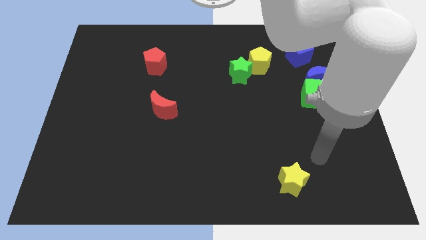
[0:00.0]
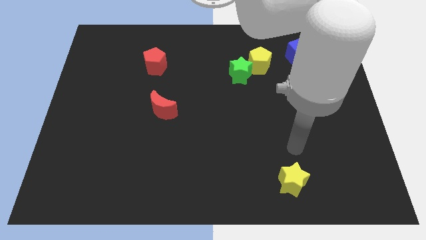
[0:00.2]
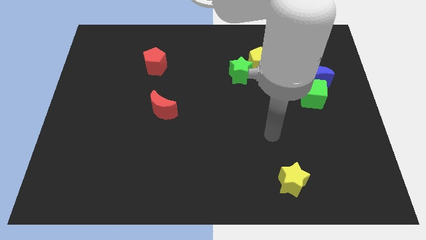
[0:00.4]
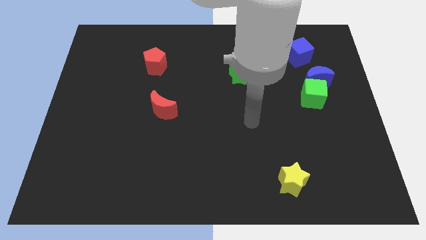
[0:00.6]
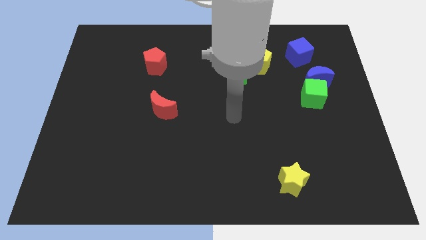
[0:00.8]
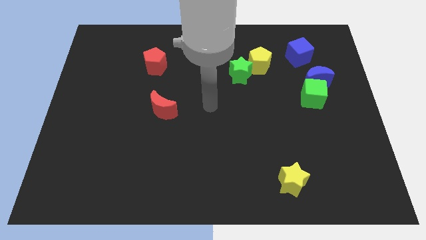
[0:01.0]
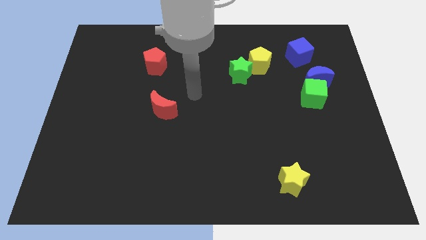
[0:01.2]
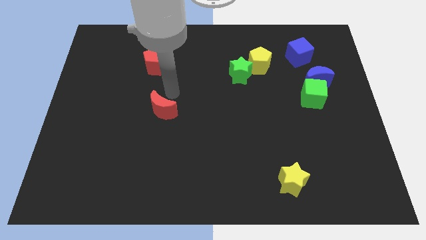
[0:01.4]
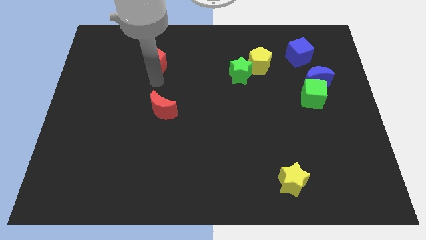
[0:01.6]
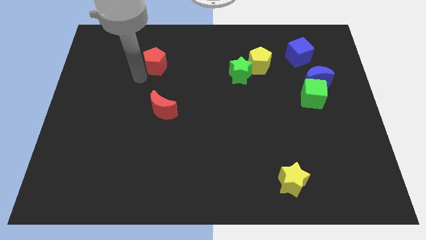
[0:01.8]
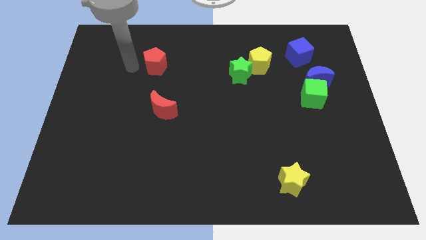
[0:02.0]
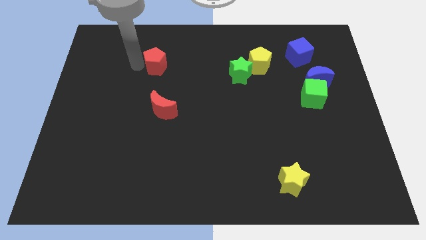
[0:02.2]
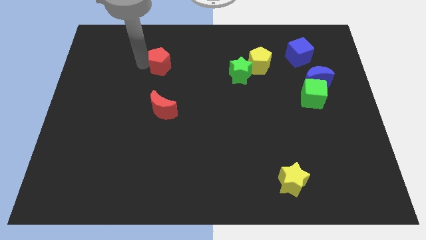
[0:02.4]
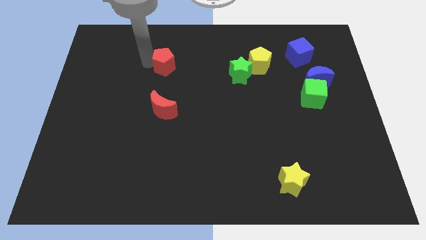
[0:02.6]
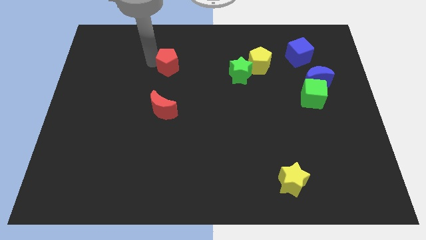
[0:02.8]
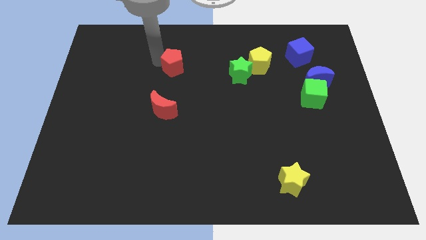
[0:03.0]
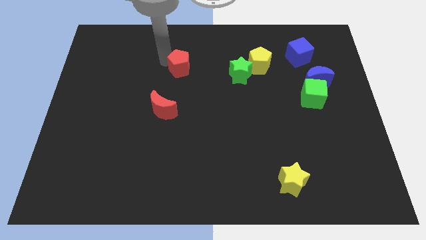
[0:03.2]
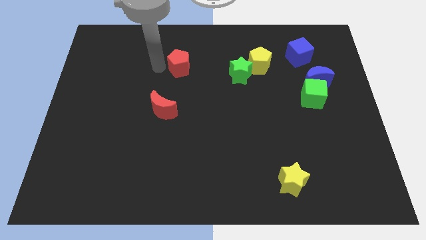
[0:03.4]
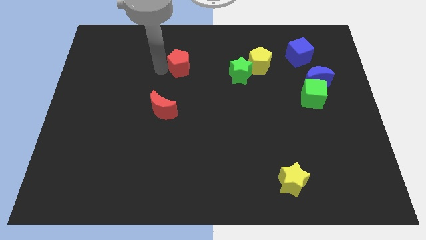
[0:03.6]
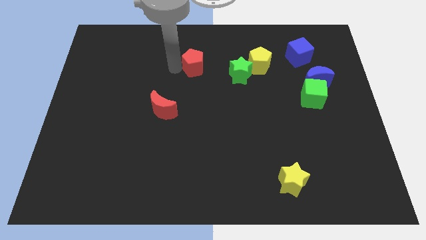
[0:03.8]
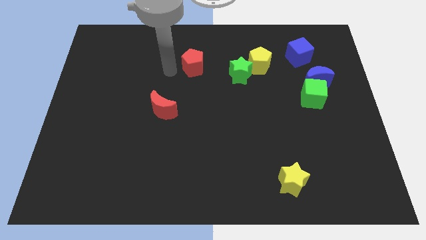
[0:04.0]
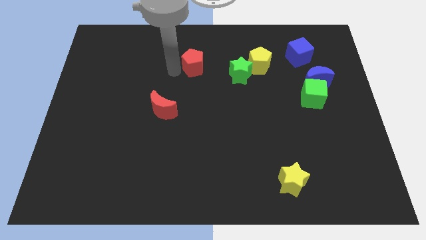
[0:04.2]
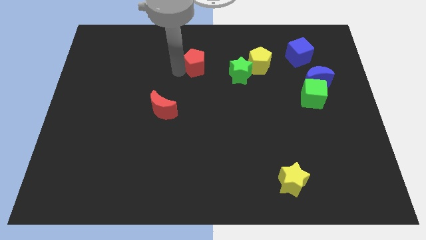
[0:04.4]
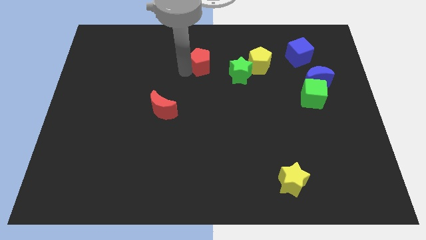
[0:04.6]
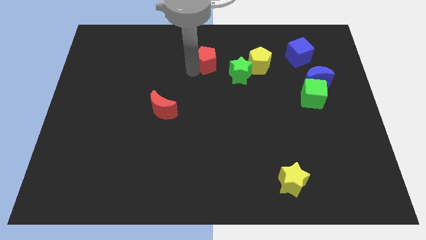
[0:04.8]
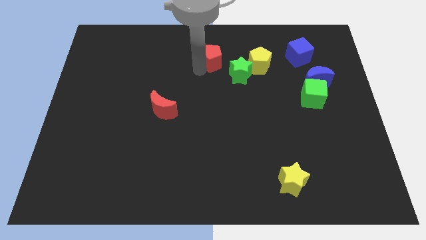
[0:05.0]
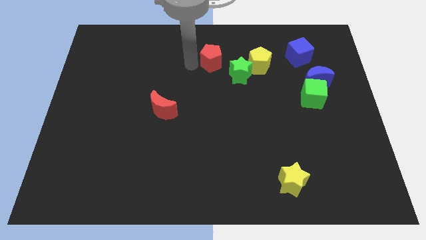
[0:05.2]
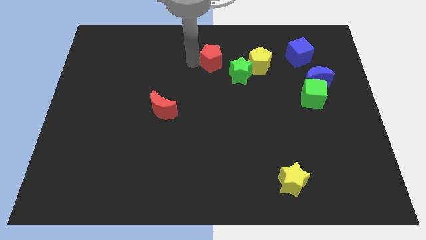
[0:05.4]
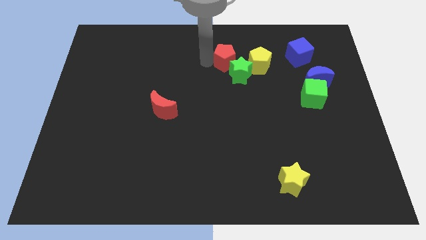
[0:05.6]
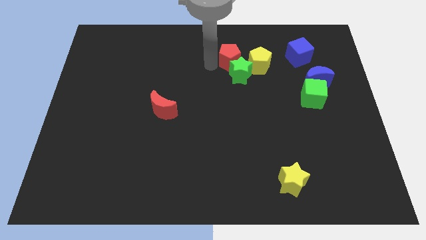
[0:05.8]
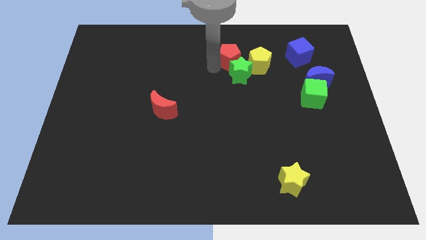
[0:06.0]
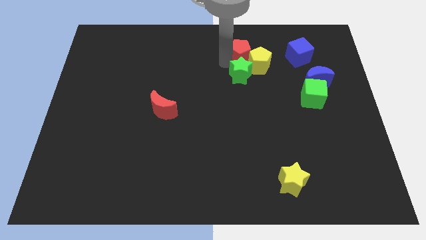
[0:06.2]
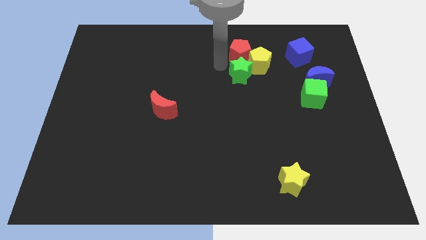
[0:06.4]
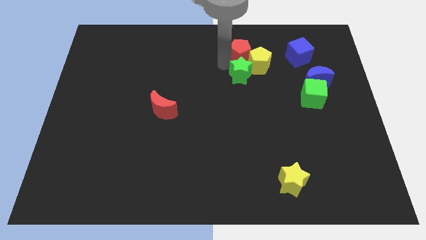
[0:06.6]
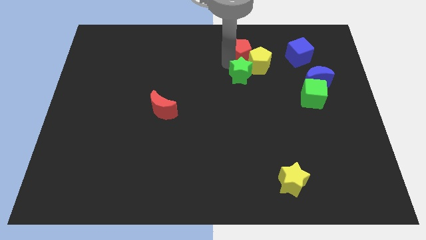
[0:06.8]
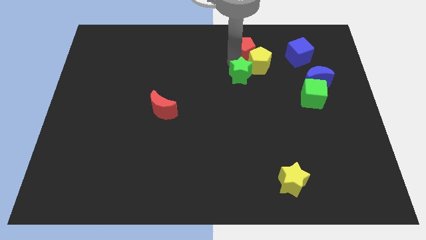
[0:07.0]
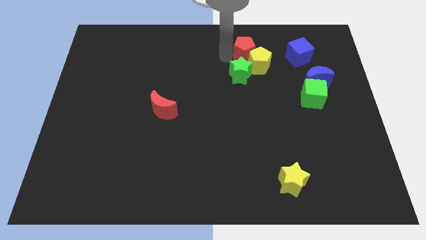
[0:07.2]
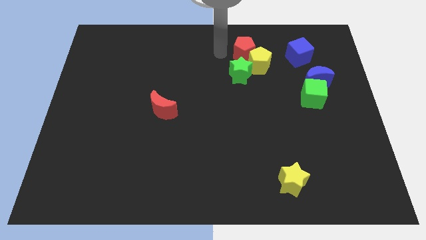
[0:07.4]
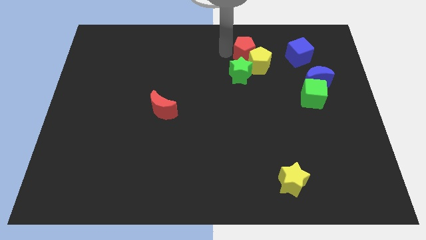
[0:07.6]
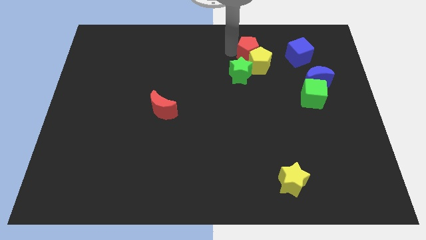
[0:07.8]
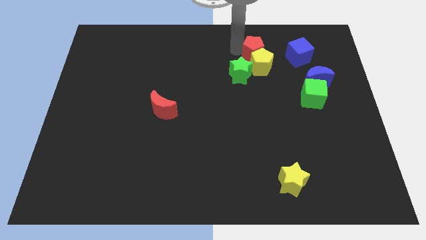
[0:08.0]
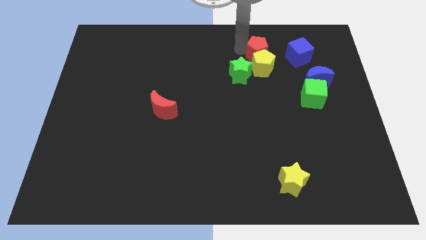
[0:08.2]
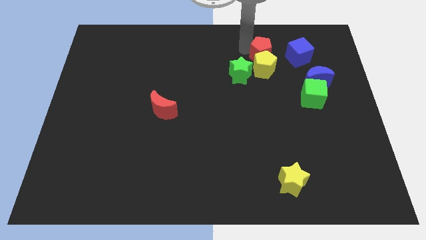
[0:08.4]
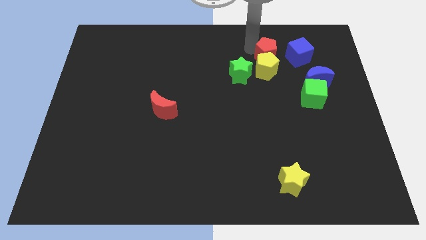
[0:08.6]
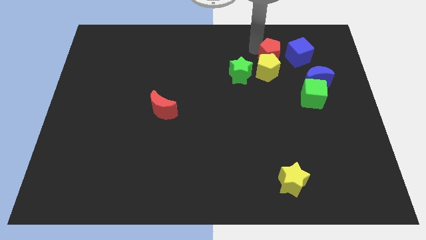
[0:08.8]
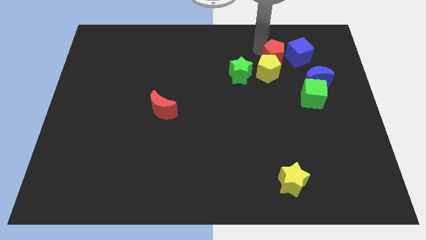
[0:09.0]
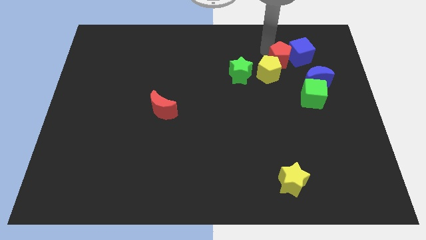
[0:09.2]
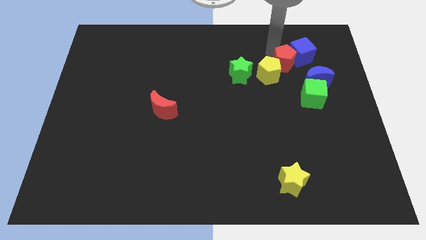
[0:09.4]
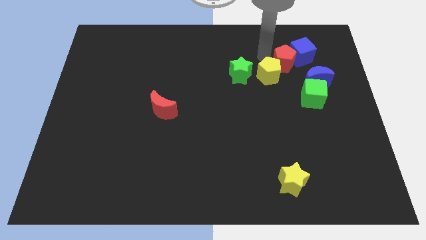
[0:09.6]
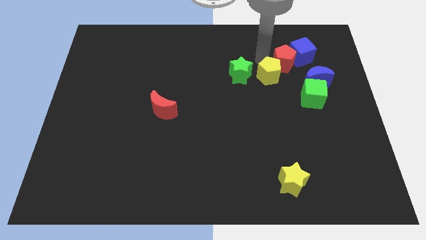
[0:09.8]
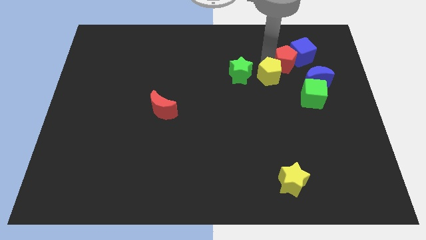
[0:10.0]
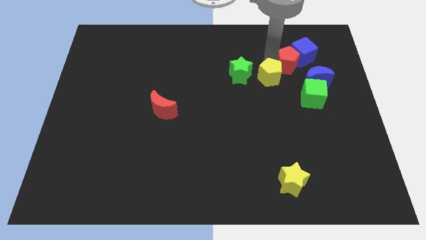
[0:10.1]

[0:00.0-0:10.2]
put the red pentagon to the top of the green cube
